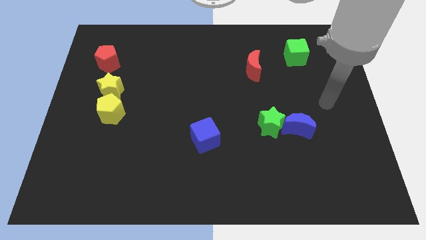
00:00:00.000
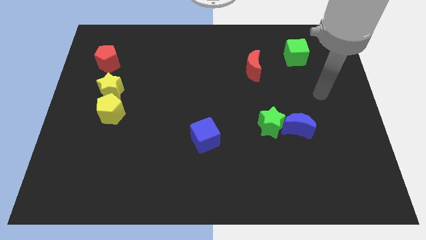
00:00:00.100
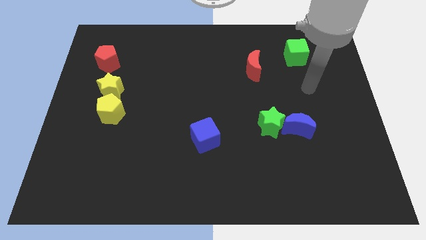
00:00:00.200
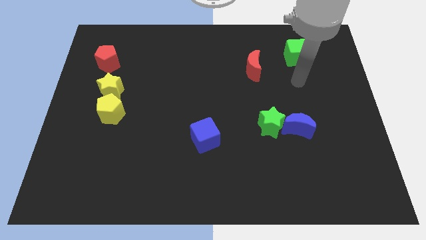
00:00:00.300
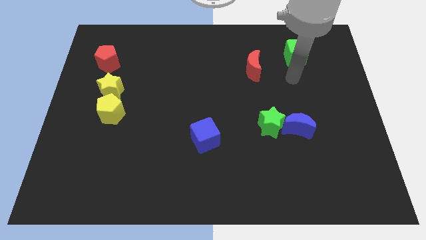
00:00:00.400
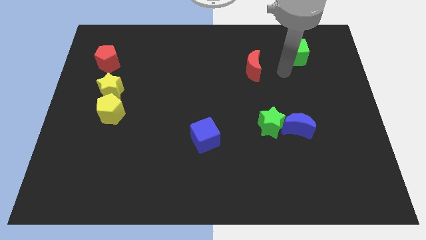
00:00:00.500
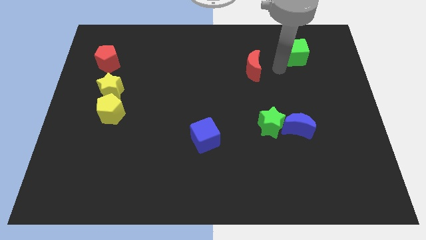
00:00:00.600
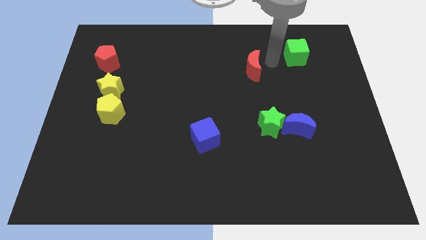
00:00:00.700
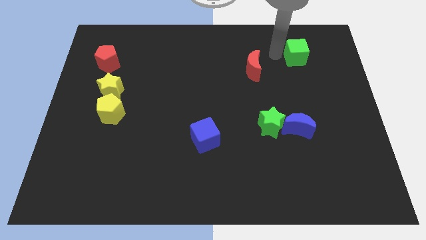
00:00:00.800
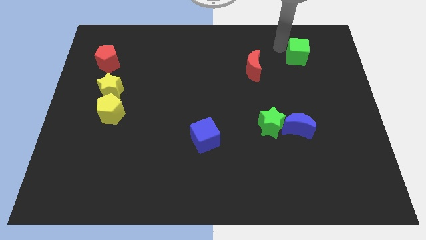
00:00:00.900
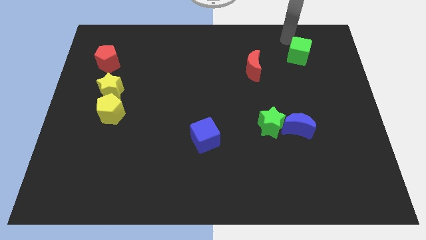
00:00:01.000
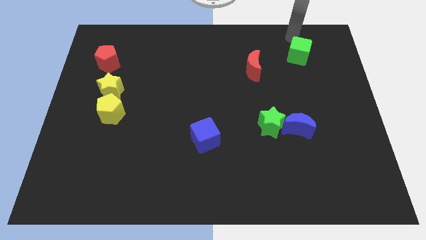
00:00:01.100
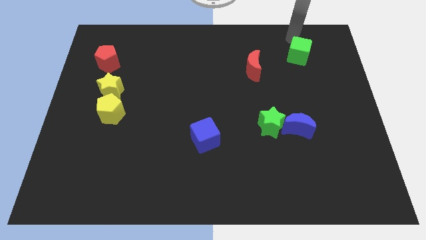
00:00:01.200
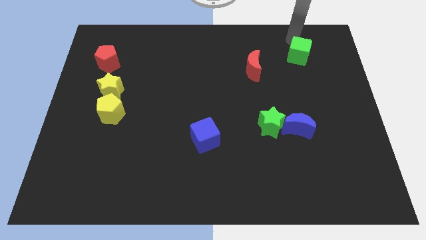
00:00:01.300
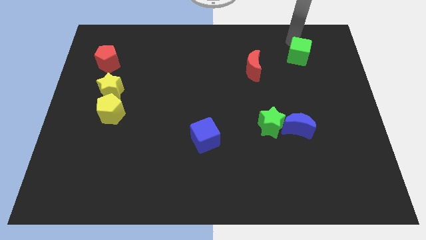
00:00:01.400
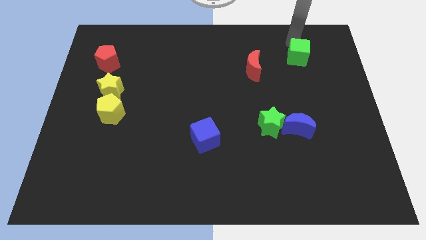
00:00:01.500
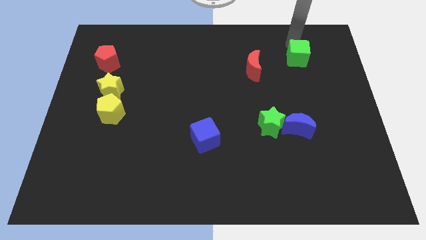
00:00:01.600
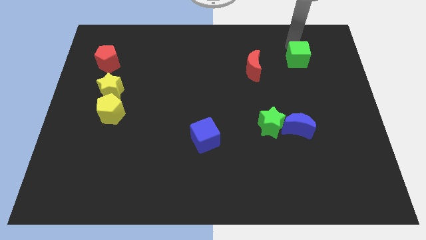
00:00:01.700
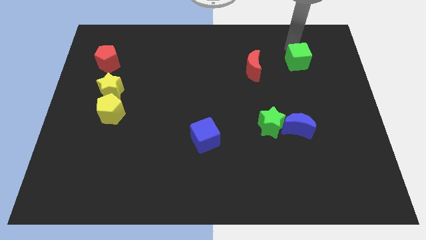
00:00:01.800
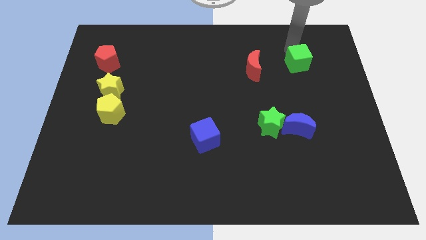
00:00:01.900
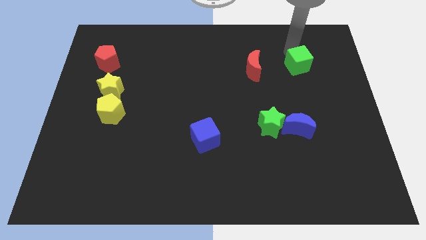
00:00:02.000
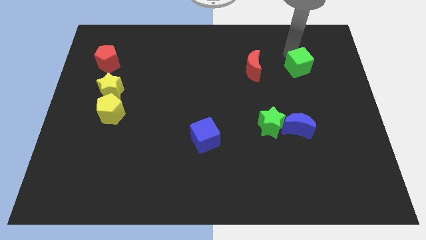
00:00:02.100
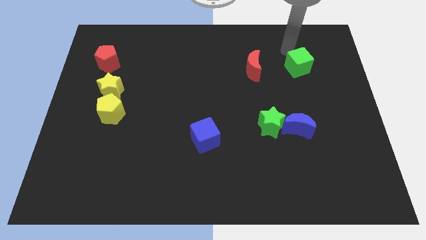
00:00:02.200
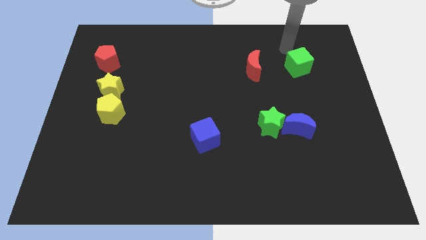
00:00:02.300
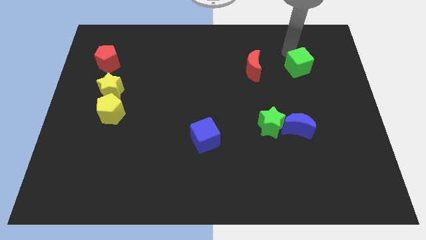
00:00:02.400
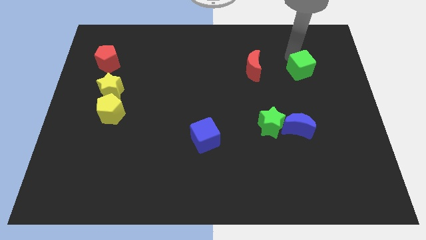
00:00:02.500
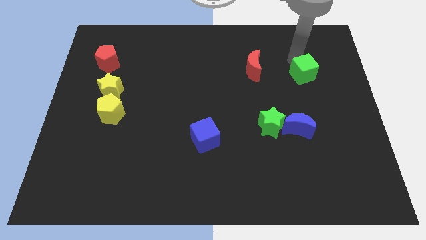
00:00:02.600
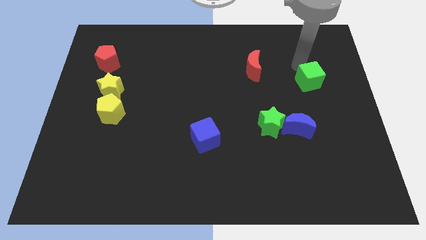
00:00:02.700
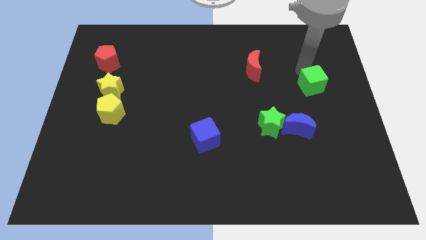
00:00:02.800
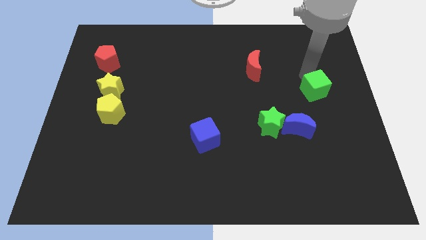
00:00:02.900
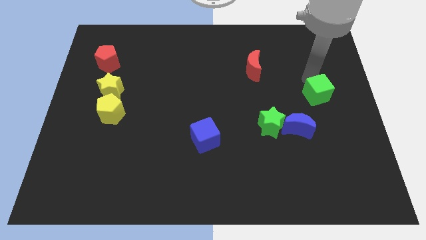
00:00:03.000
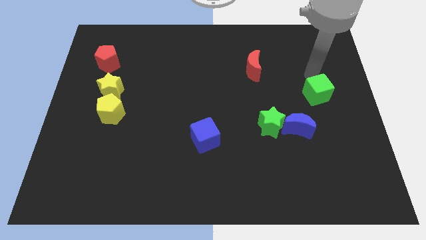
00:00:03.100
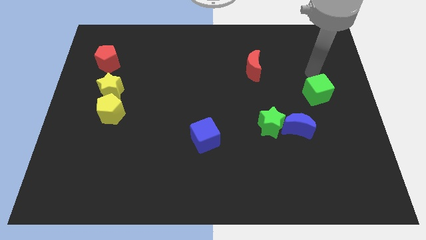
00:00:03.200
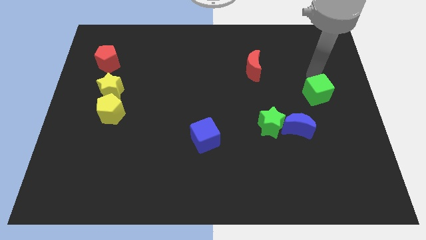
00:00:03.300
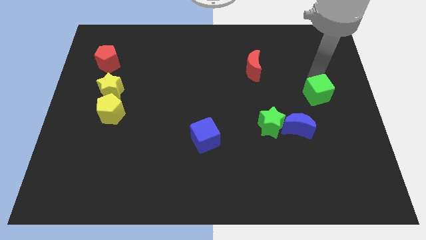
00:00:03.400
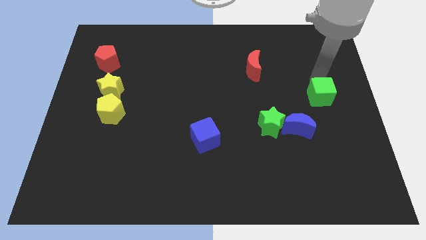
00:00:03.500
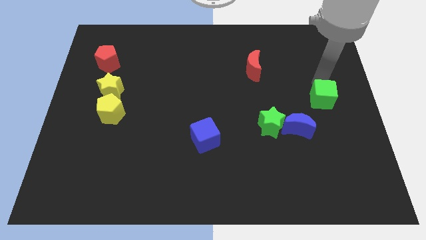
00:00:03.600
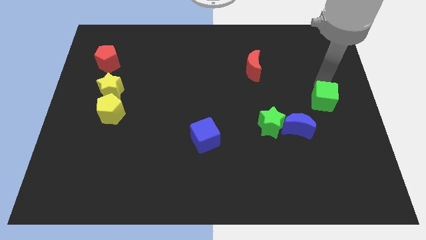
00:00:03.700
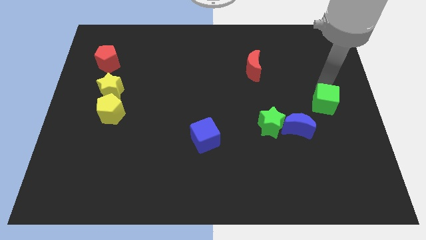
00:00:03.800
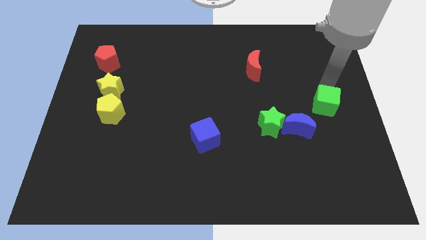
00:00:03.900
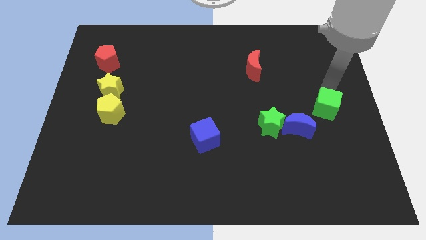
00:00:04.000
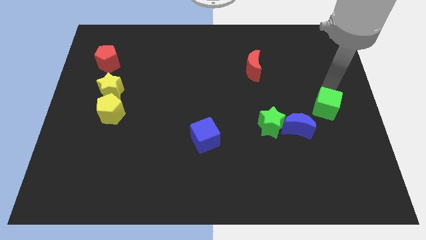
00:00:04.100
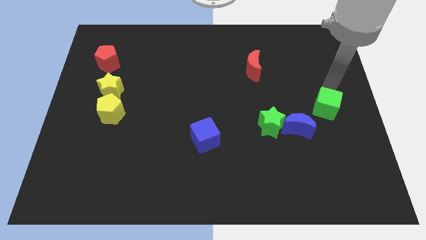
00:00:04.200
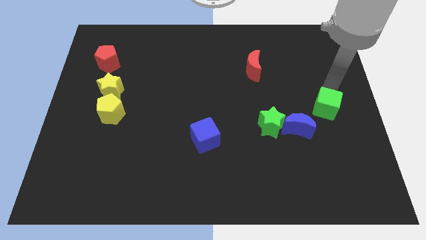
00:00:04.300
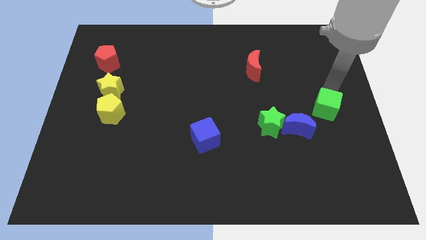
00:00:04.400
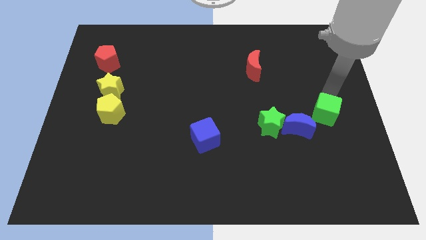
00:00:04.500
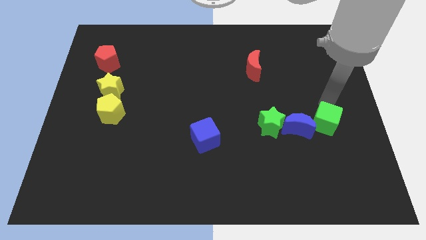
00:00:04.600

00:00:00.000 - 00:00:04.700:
slide the green cube downwards

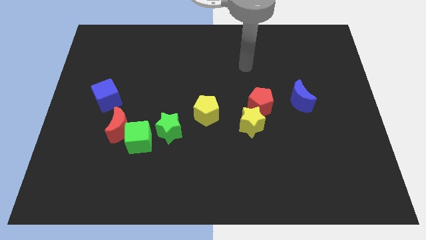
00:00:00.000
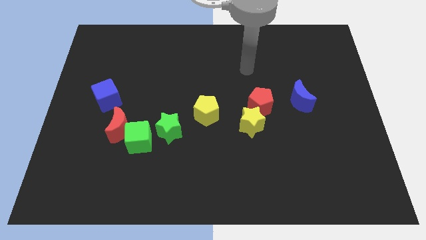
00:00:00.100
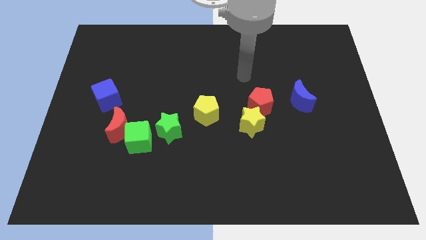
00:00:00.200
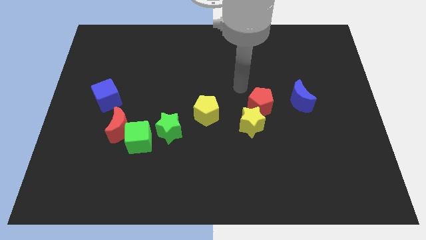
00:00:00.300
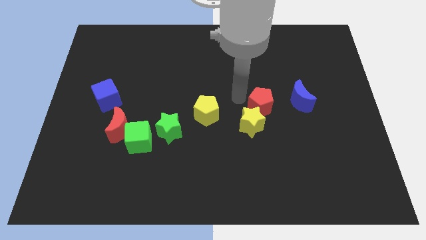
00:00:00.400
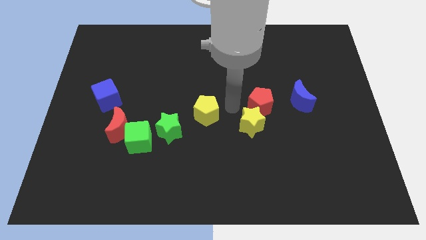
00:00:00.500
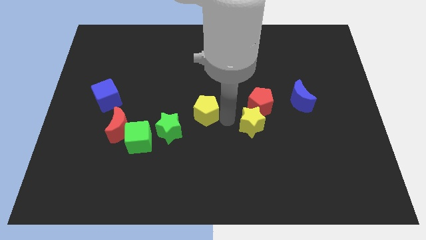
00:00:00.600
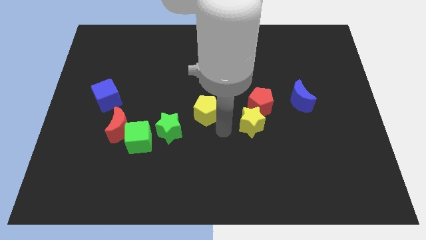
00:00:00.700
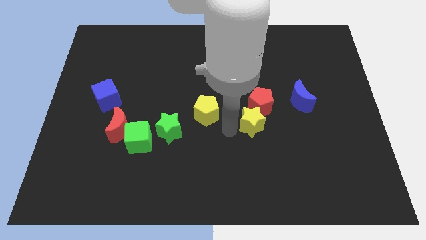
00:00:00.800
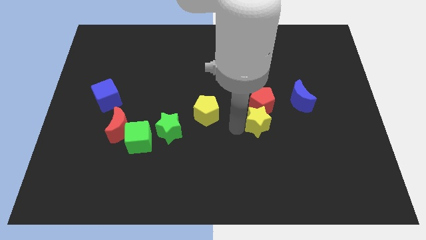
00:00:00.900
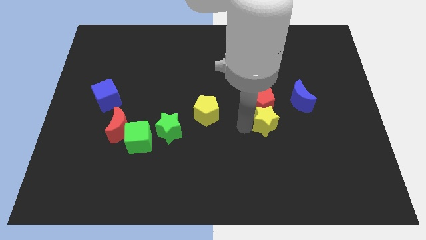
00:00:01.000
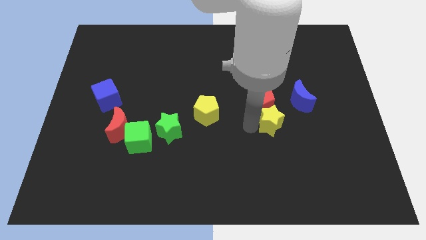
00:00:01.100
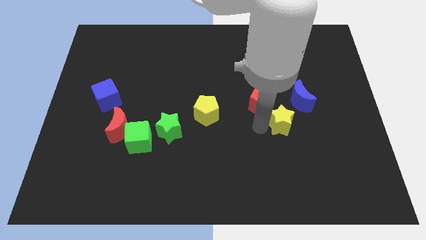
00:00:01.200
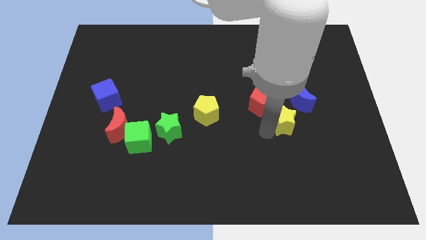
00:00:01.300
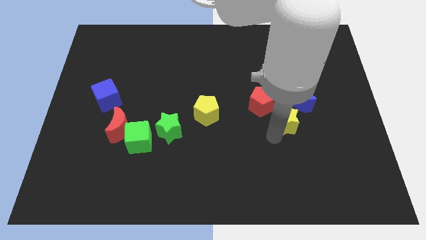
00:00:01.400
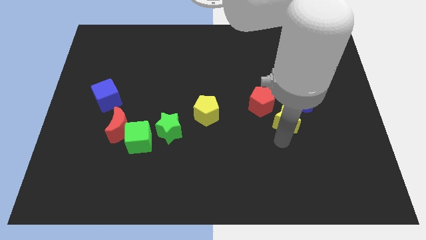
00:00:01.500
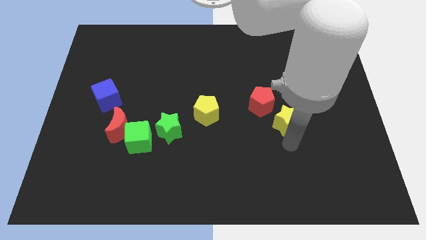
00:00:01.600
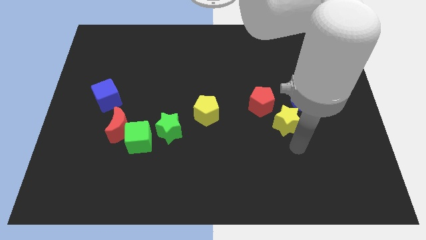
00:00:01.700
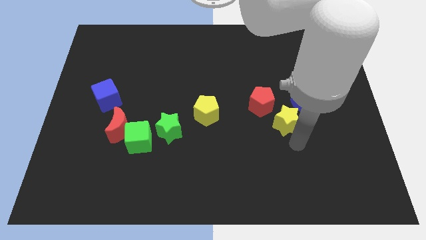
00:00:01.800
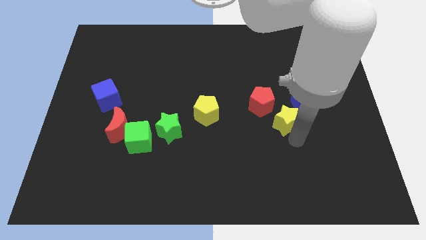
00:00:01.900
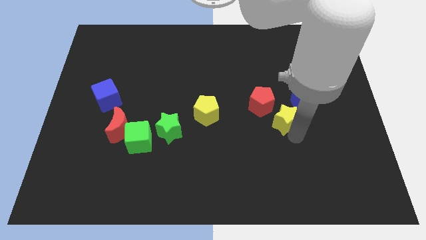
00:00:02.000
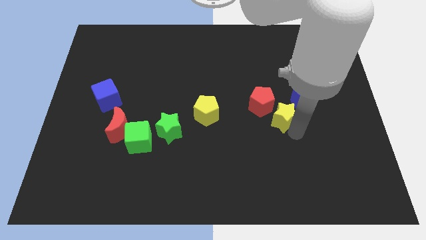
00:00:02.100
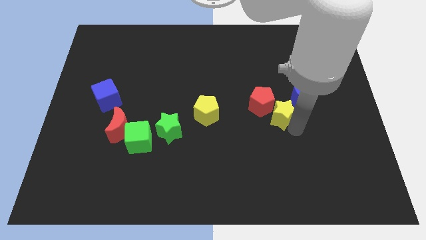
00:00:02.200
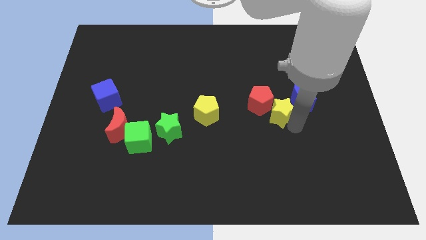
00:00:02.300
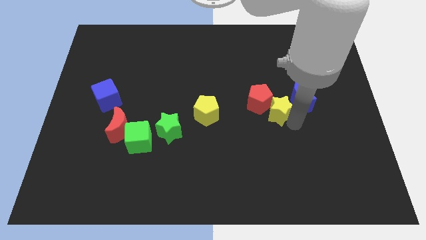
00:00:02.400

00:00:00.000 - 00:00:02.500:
slightly move the yellow star diagonally upwards and to the right

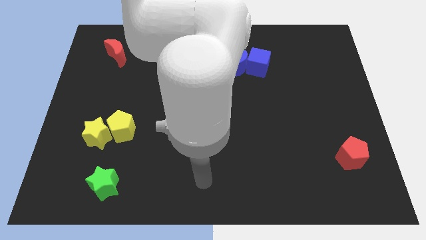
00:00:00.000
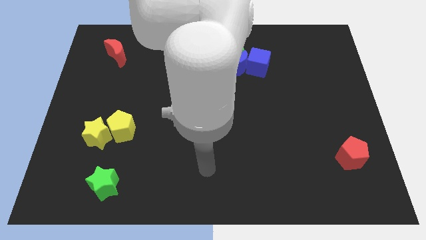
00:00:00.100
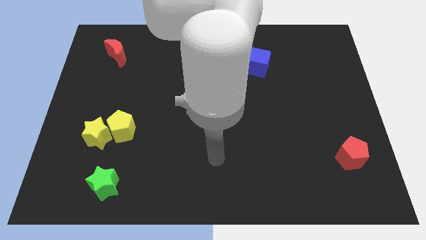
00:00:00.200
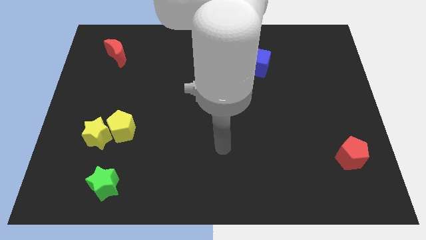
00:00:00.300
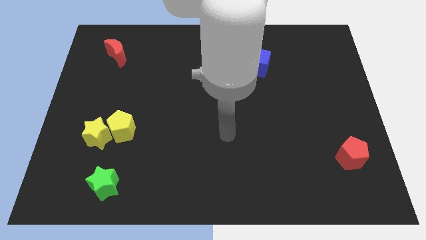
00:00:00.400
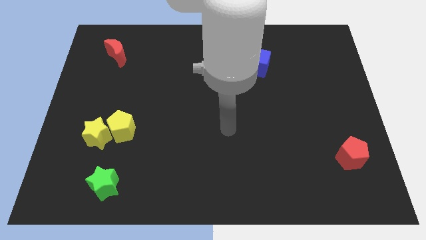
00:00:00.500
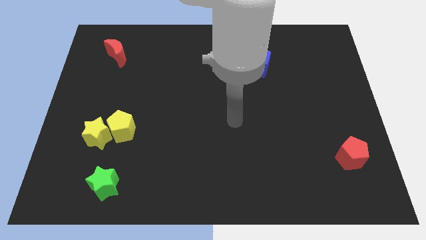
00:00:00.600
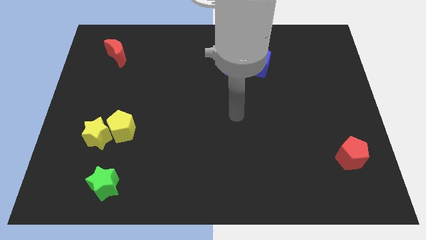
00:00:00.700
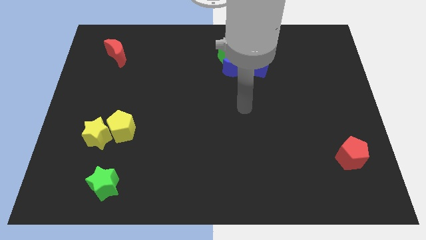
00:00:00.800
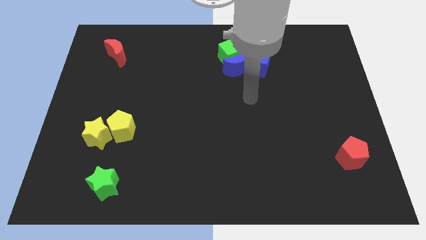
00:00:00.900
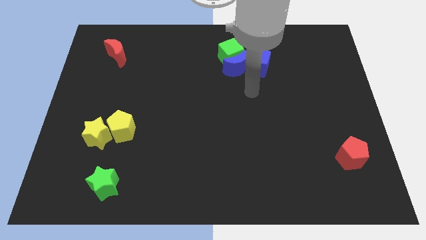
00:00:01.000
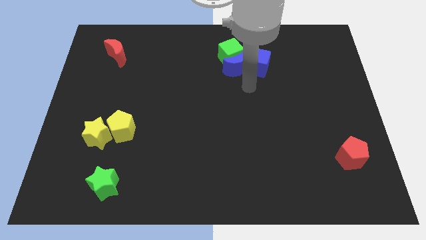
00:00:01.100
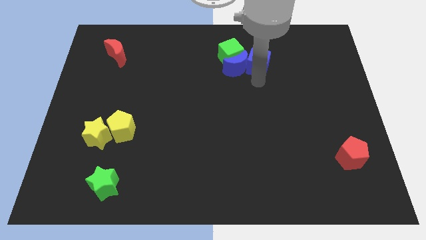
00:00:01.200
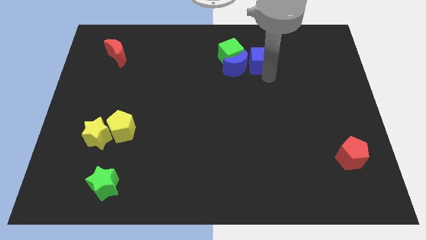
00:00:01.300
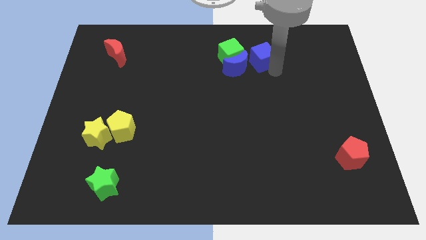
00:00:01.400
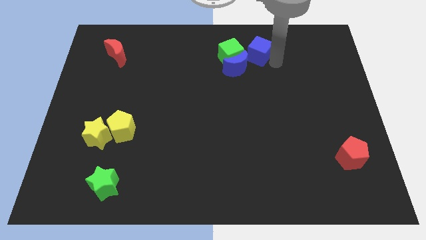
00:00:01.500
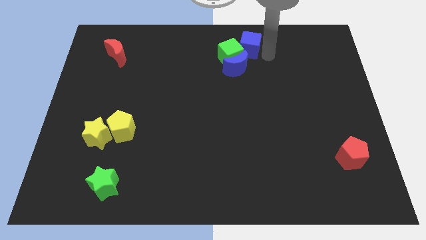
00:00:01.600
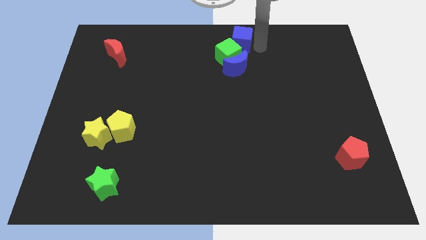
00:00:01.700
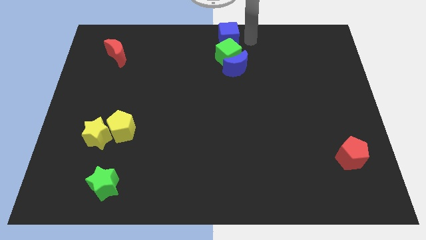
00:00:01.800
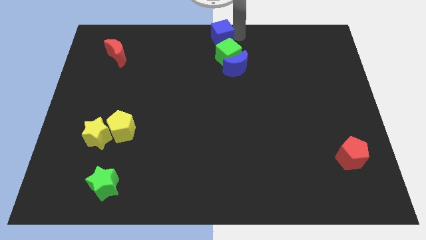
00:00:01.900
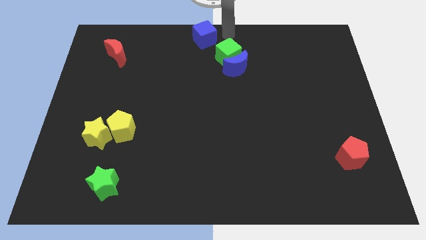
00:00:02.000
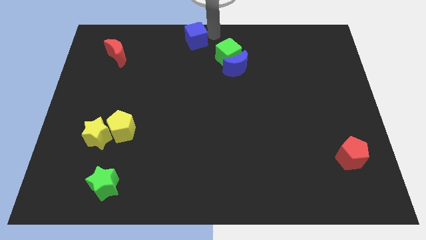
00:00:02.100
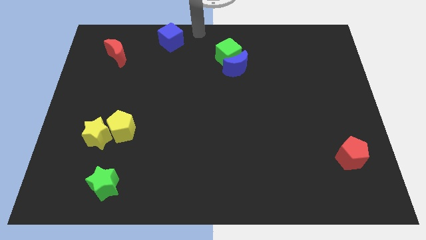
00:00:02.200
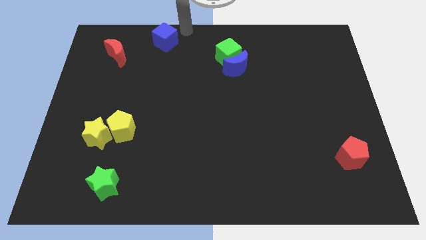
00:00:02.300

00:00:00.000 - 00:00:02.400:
move the blue cube to the left
